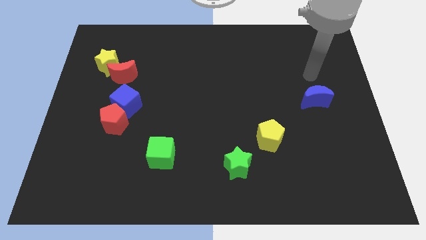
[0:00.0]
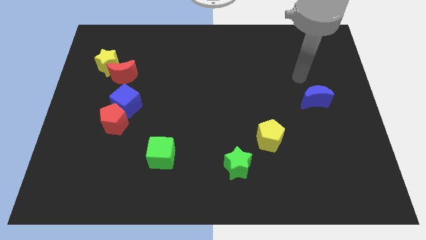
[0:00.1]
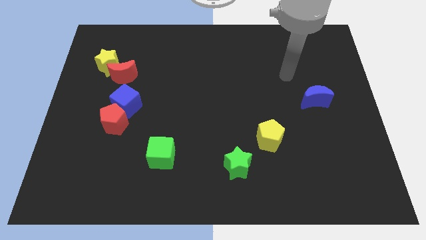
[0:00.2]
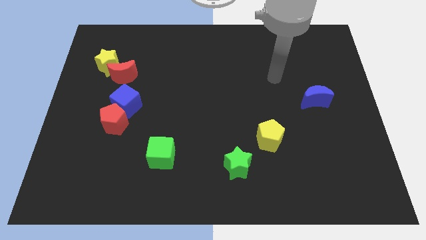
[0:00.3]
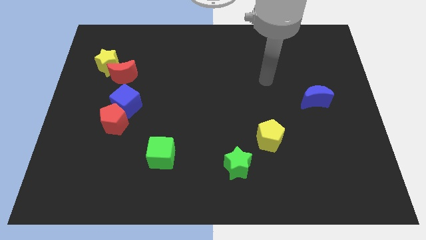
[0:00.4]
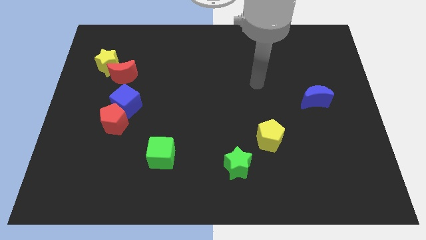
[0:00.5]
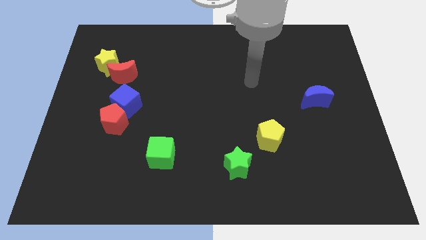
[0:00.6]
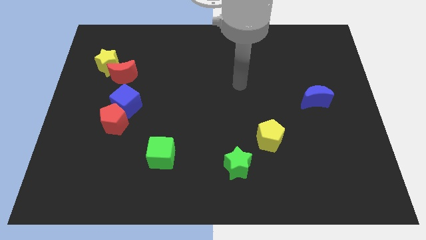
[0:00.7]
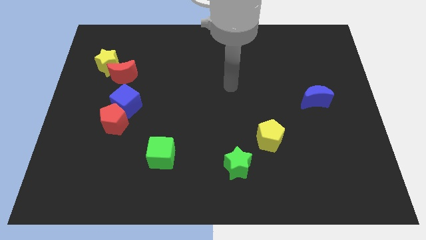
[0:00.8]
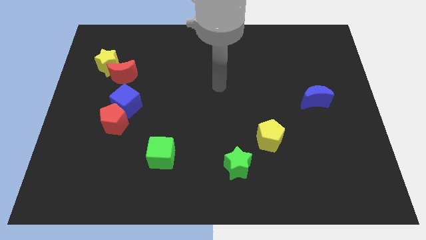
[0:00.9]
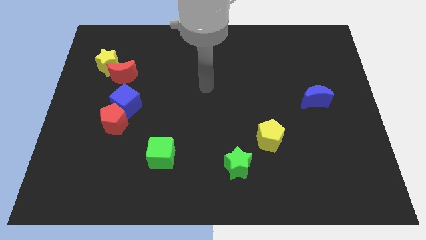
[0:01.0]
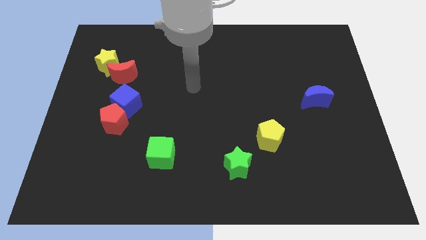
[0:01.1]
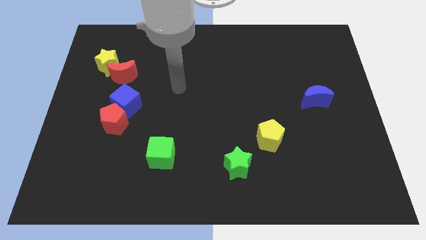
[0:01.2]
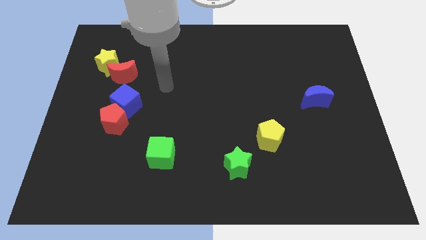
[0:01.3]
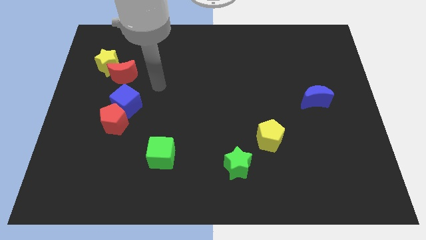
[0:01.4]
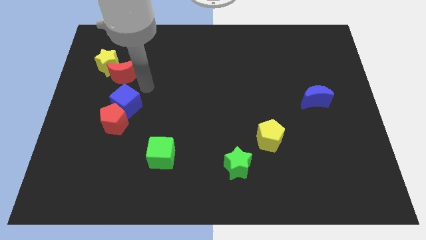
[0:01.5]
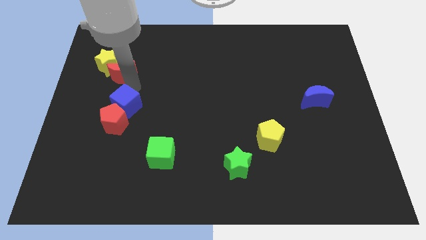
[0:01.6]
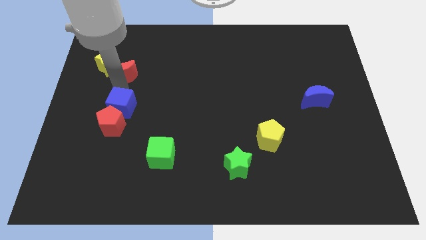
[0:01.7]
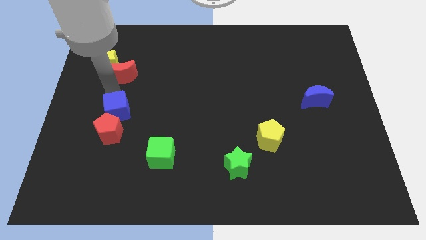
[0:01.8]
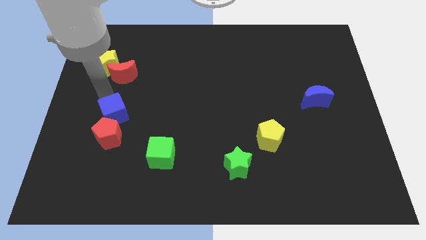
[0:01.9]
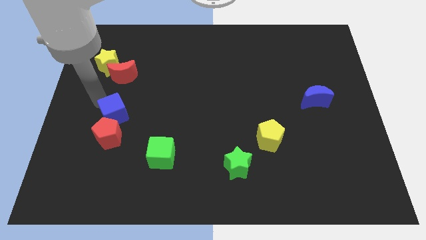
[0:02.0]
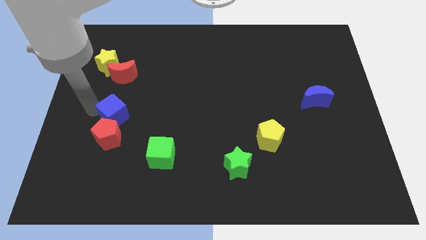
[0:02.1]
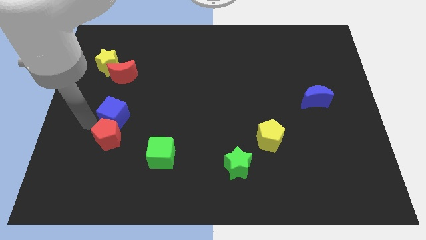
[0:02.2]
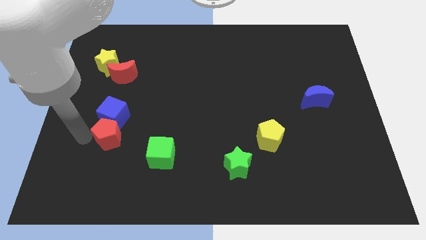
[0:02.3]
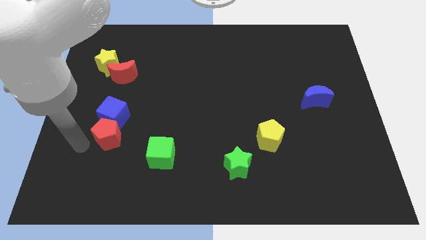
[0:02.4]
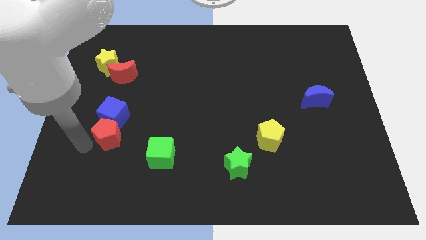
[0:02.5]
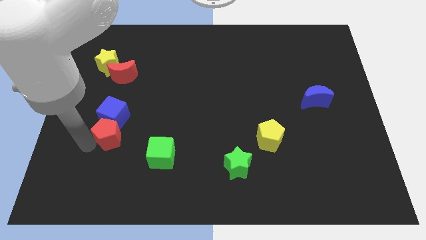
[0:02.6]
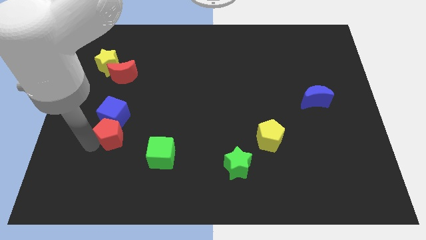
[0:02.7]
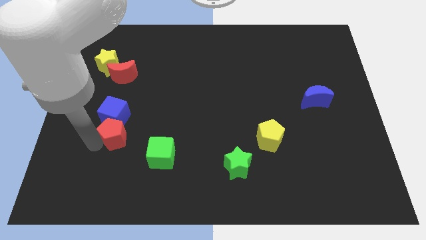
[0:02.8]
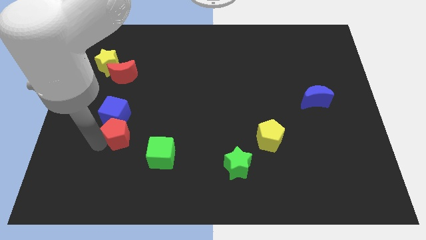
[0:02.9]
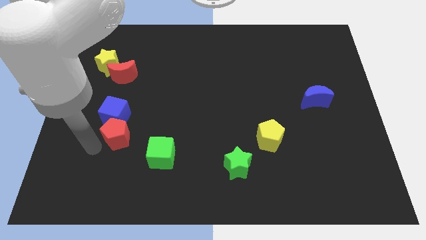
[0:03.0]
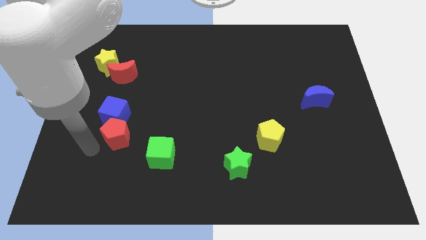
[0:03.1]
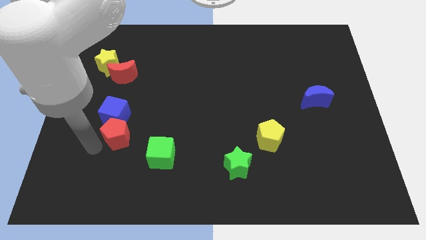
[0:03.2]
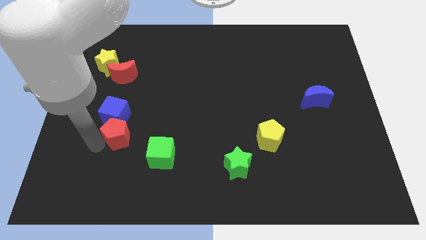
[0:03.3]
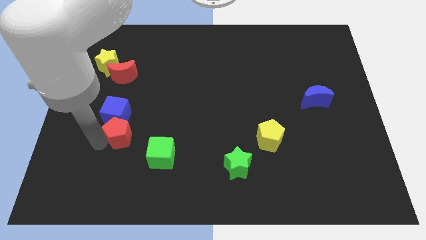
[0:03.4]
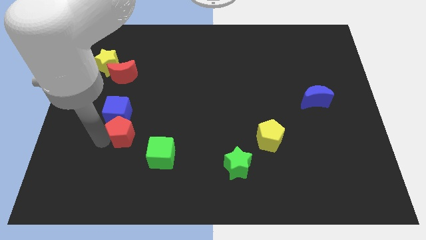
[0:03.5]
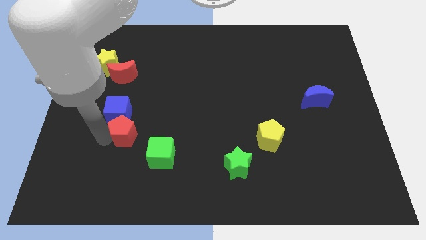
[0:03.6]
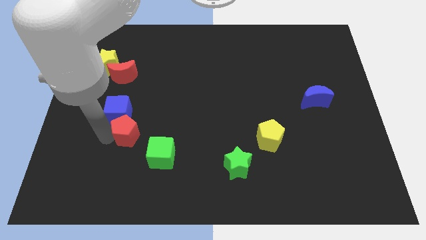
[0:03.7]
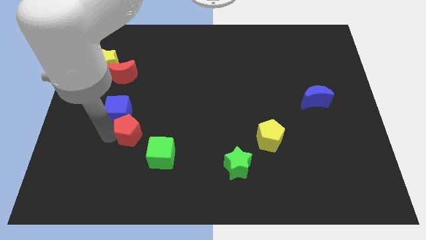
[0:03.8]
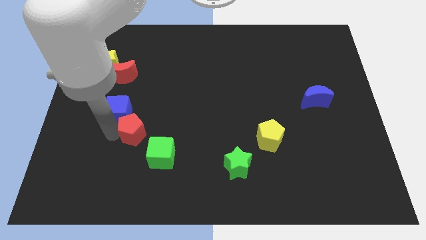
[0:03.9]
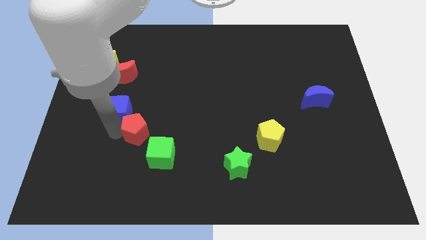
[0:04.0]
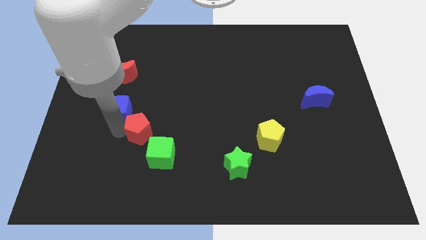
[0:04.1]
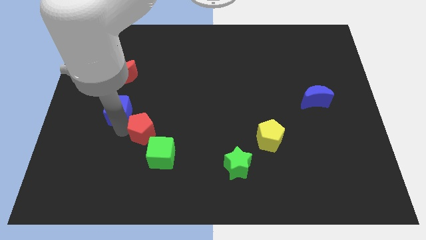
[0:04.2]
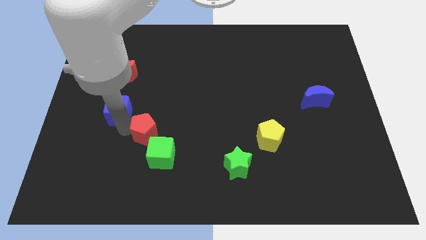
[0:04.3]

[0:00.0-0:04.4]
push the red pentagon to the right a little

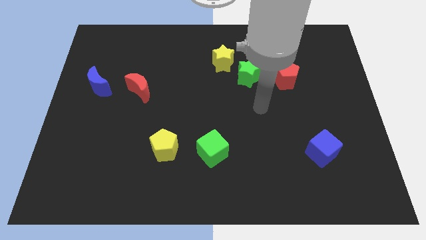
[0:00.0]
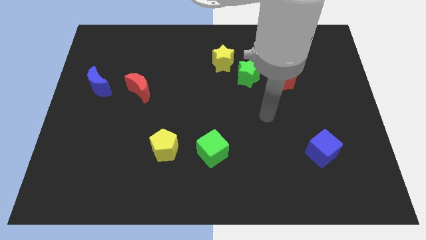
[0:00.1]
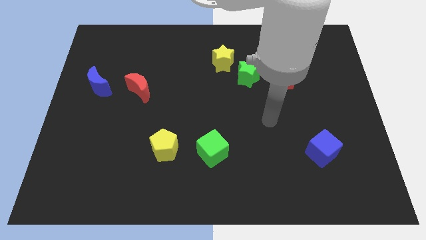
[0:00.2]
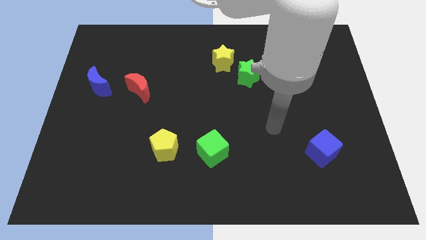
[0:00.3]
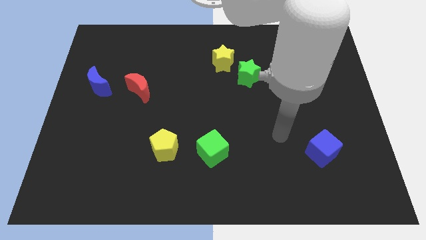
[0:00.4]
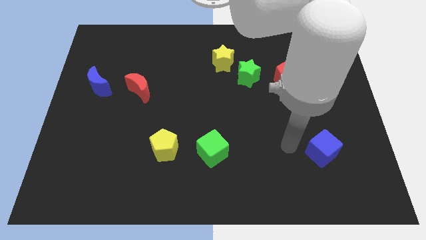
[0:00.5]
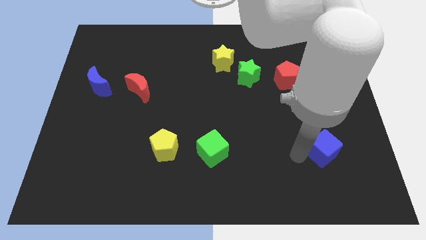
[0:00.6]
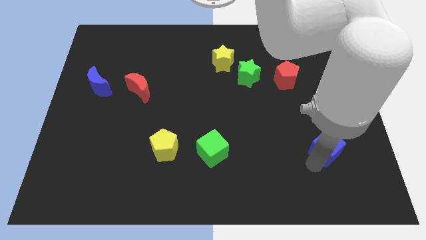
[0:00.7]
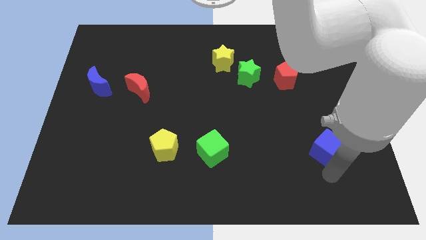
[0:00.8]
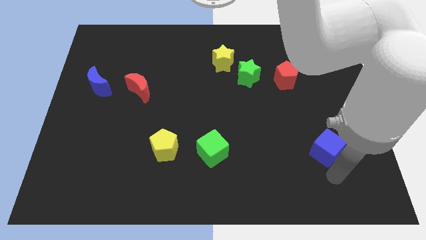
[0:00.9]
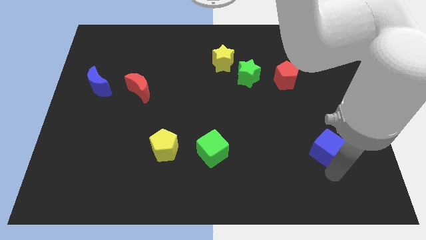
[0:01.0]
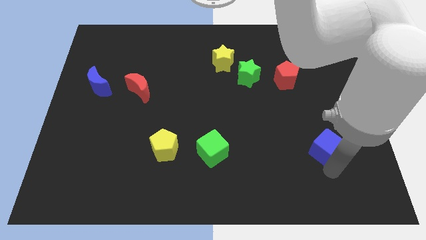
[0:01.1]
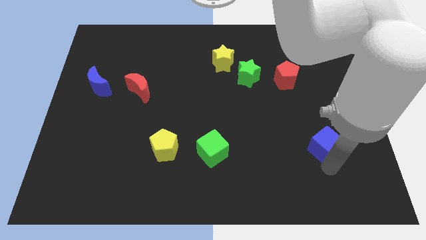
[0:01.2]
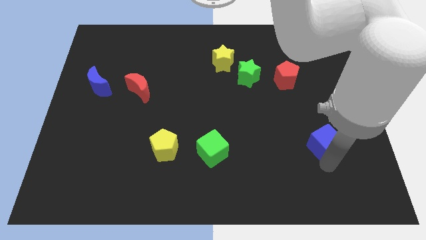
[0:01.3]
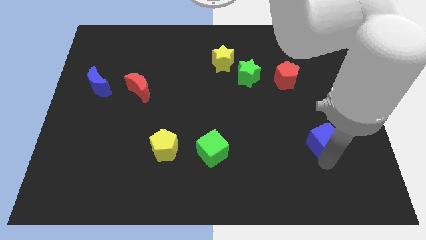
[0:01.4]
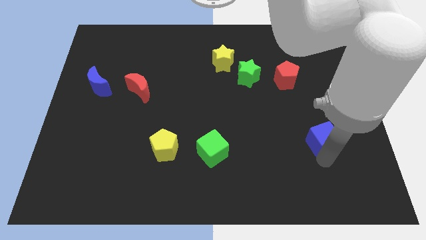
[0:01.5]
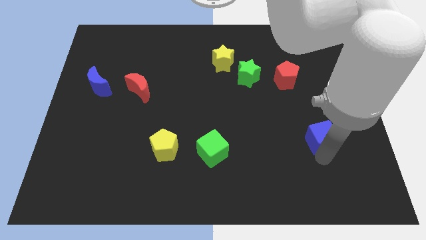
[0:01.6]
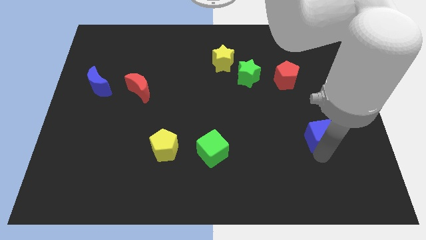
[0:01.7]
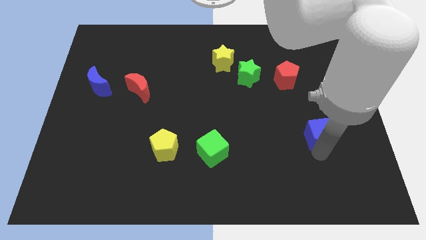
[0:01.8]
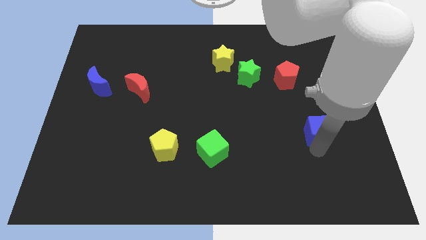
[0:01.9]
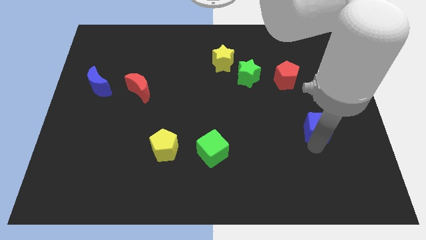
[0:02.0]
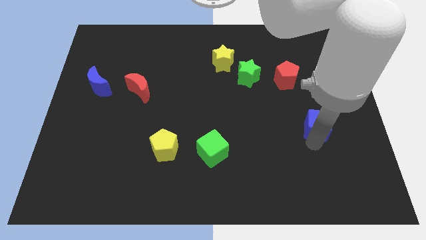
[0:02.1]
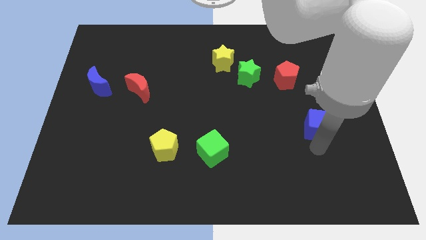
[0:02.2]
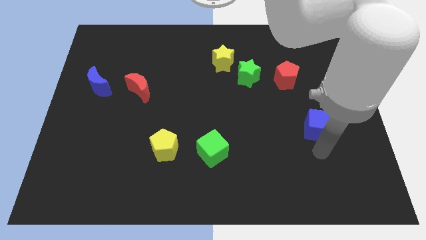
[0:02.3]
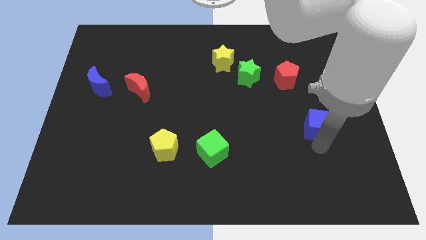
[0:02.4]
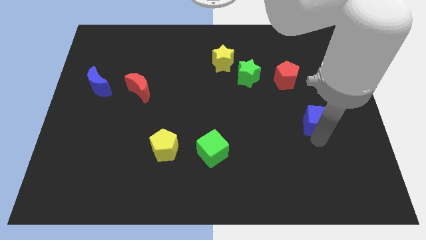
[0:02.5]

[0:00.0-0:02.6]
slide the blue cube up a little

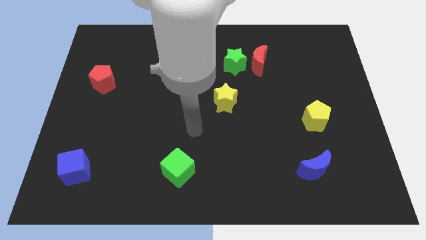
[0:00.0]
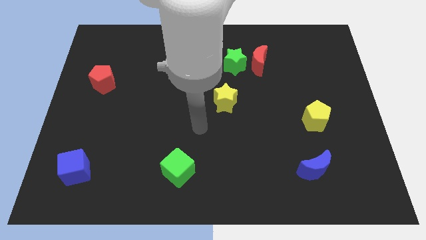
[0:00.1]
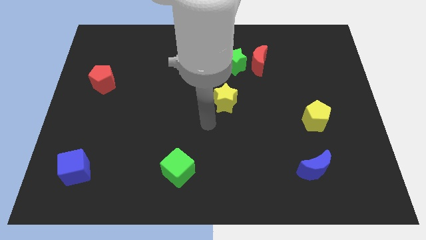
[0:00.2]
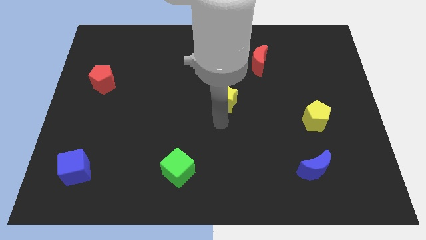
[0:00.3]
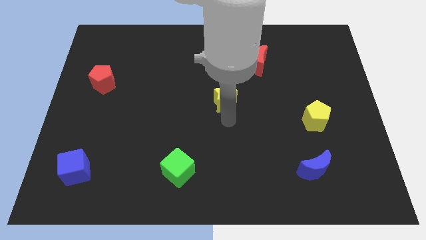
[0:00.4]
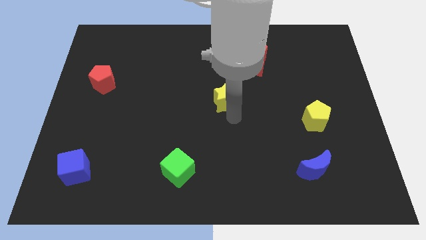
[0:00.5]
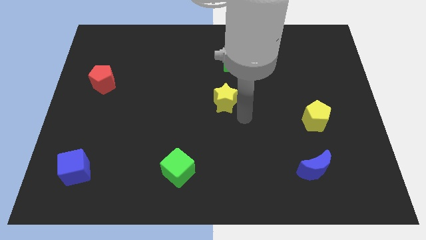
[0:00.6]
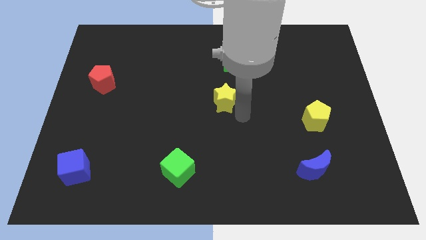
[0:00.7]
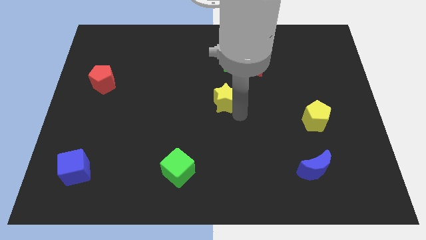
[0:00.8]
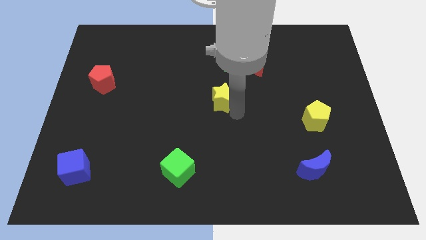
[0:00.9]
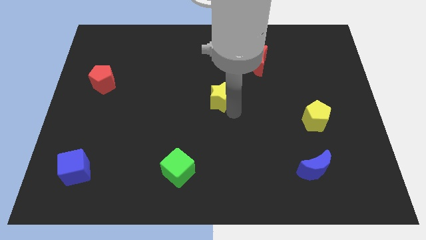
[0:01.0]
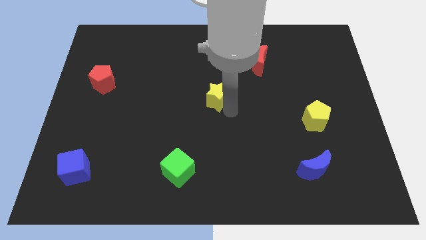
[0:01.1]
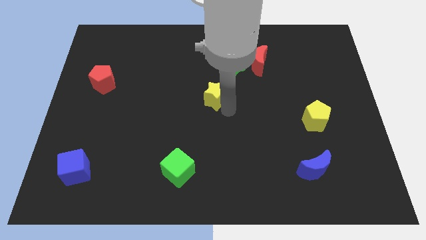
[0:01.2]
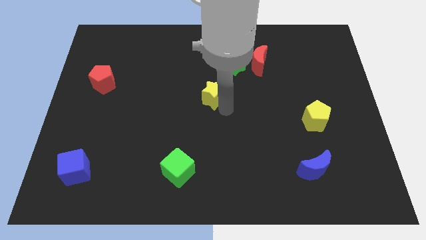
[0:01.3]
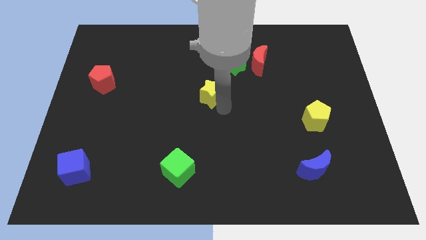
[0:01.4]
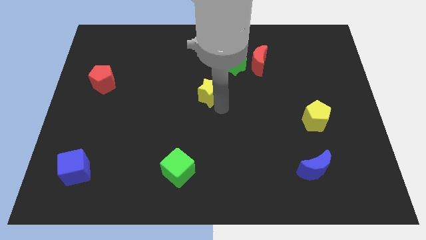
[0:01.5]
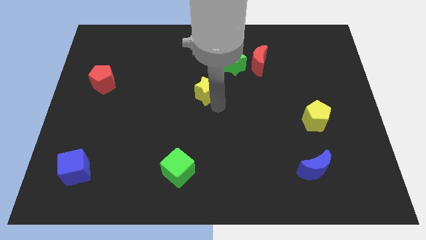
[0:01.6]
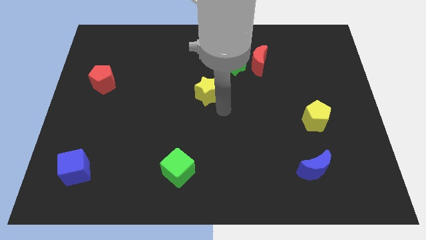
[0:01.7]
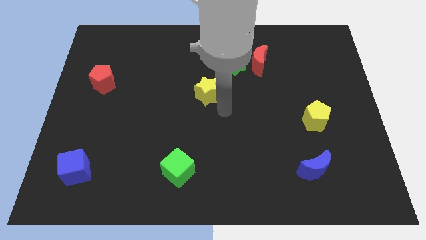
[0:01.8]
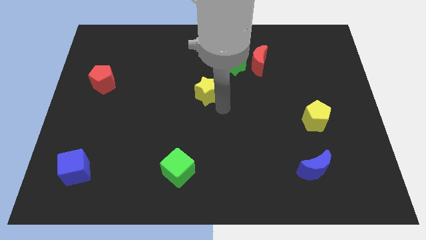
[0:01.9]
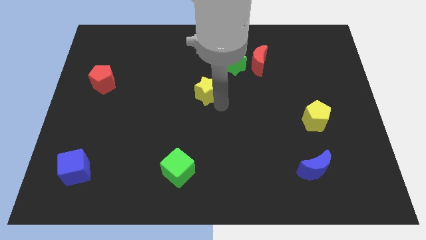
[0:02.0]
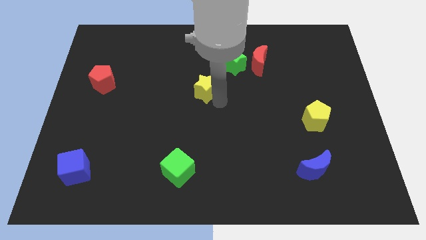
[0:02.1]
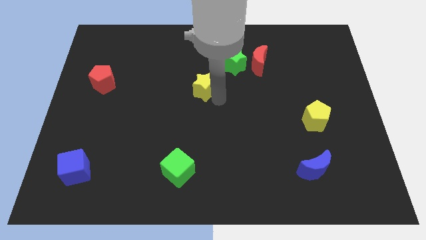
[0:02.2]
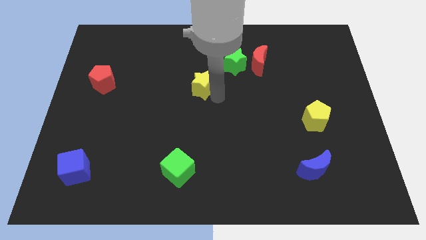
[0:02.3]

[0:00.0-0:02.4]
slightly slide the yellow star upwards and to the left diagonally
